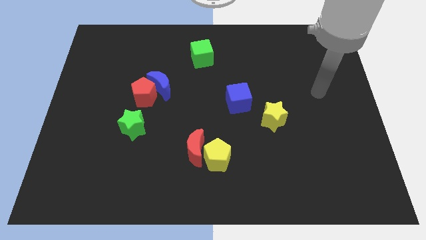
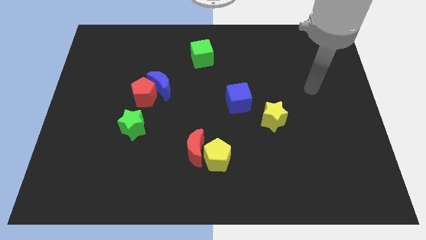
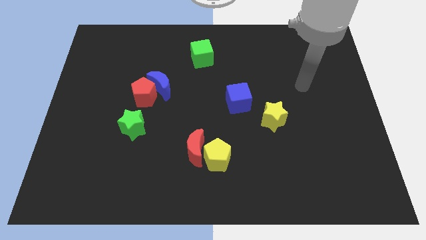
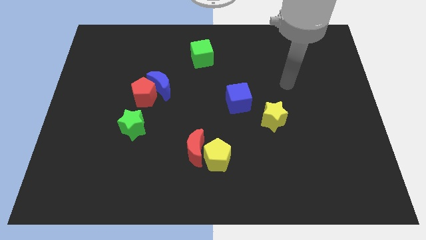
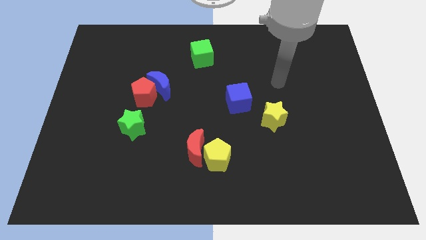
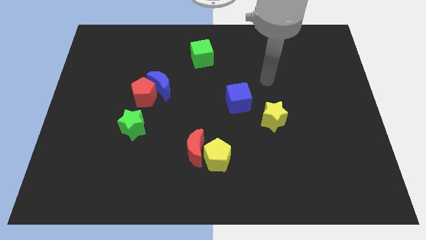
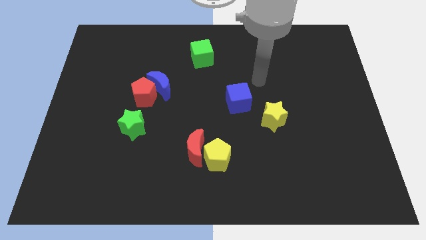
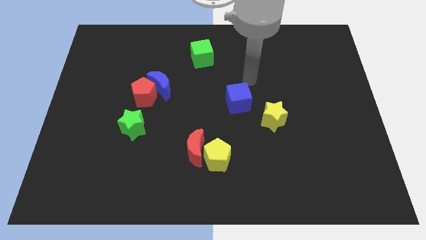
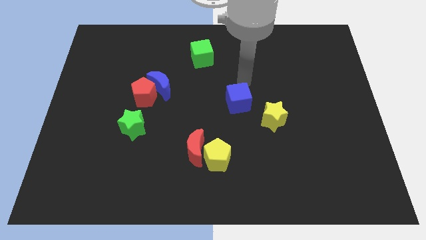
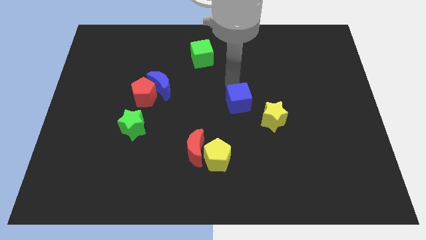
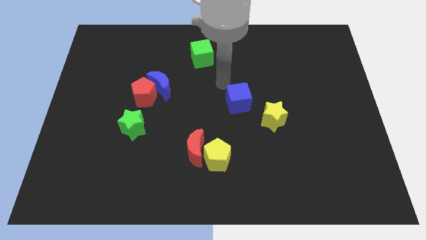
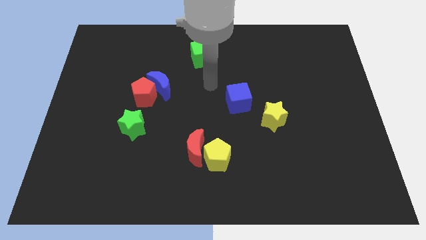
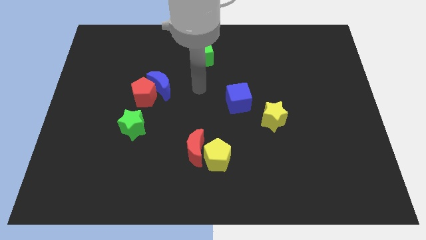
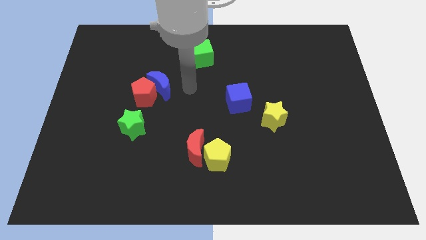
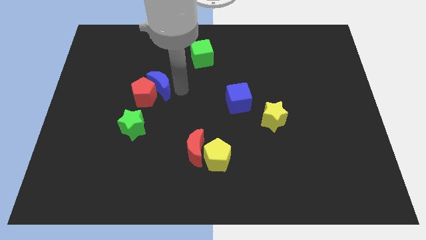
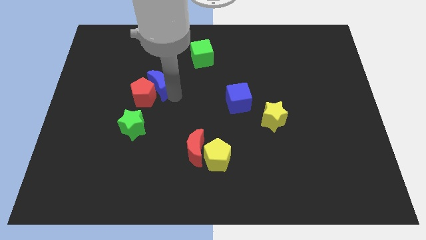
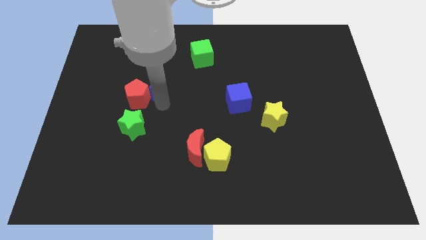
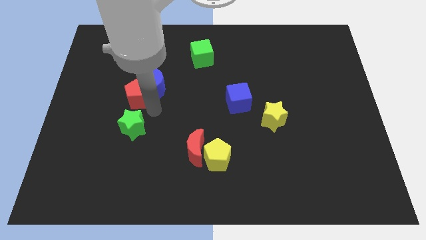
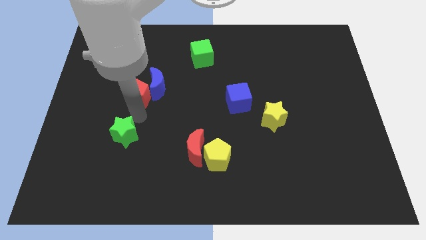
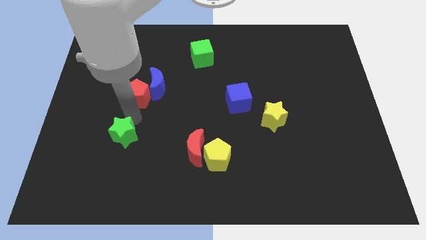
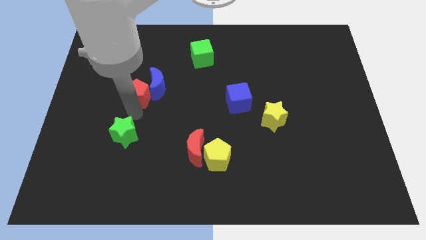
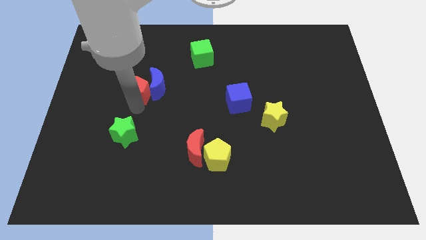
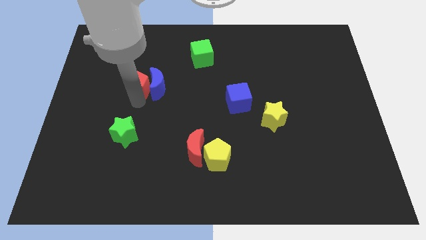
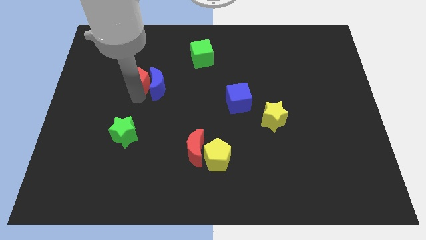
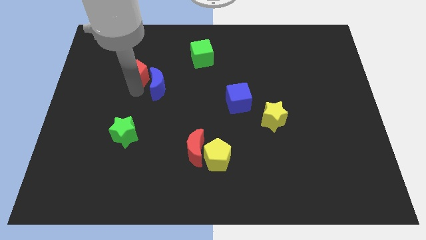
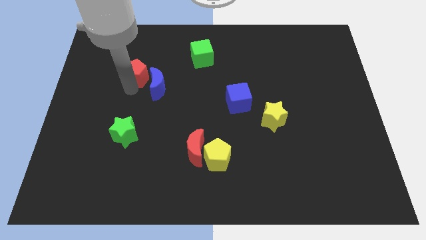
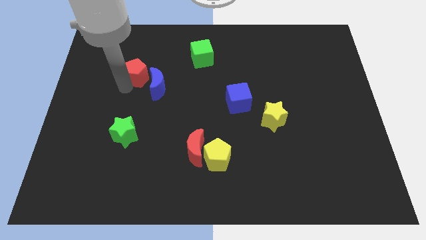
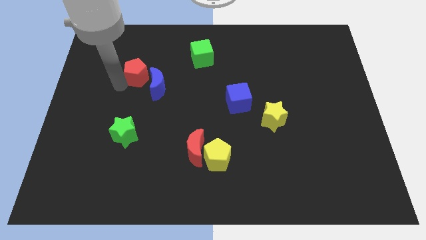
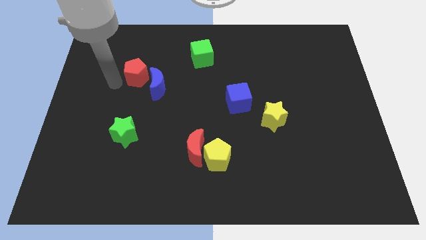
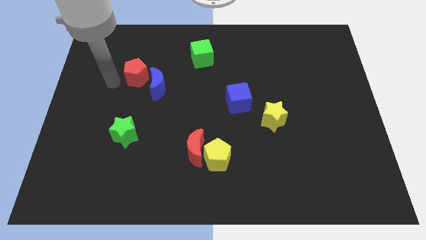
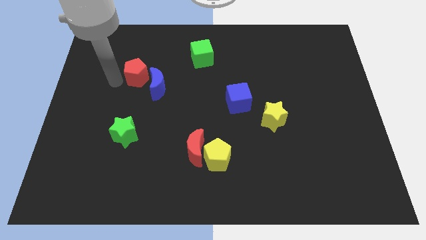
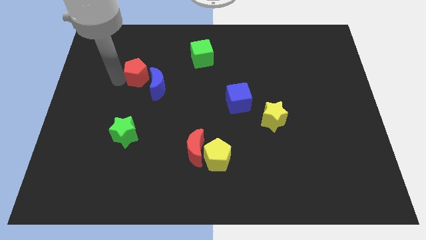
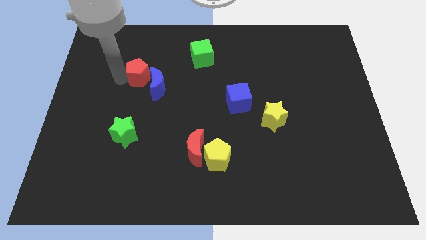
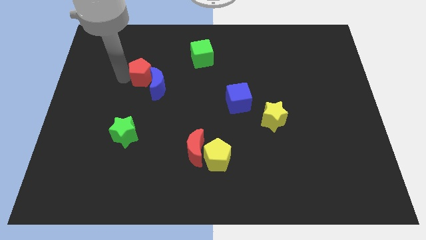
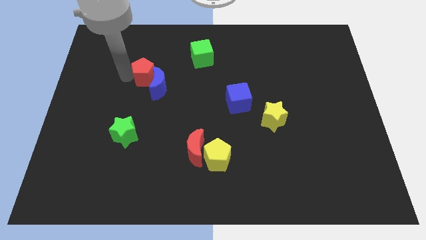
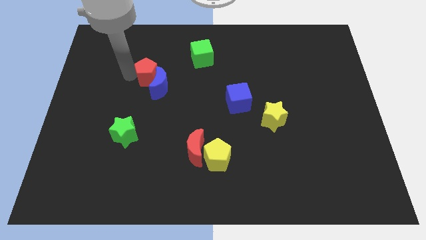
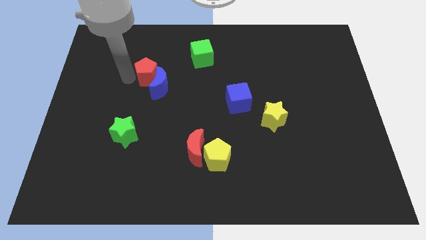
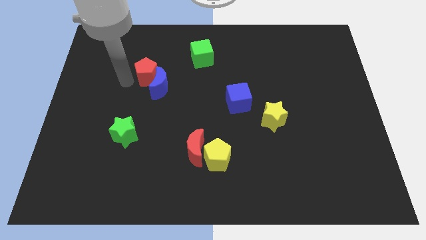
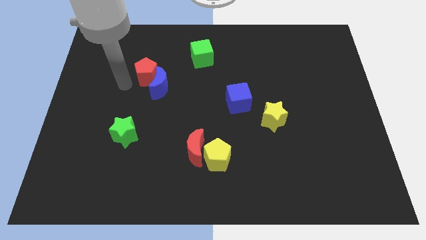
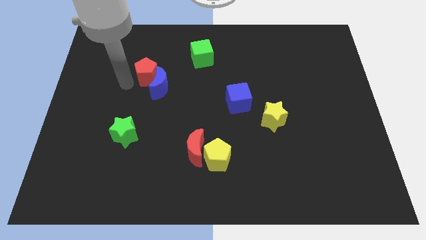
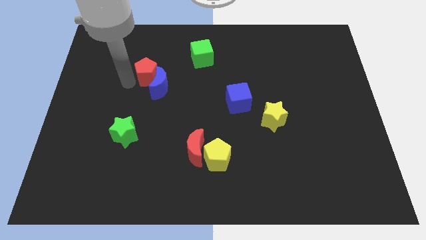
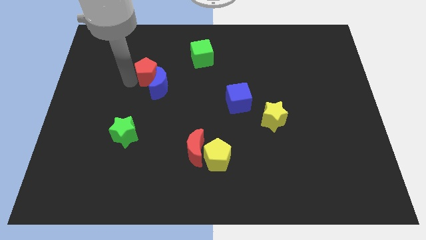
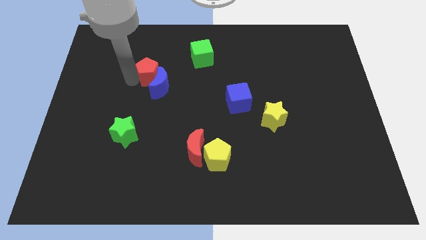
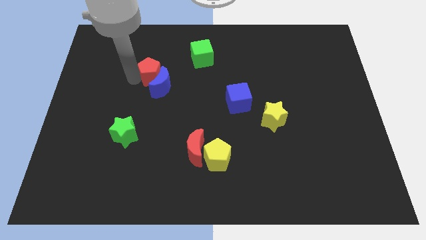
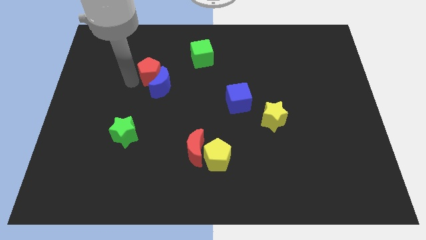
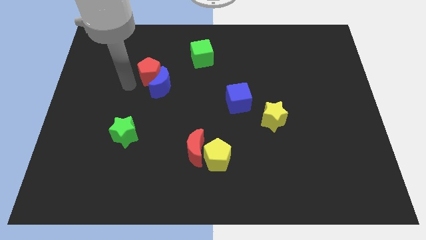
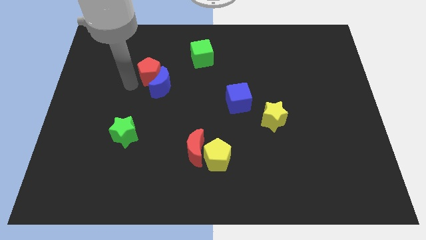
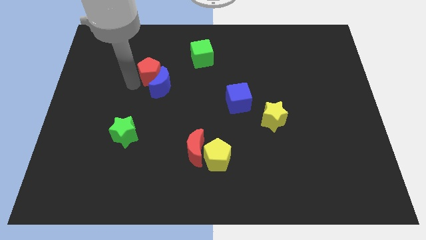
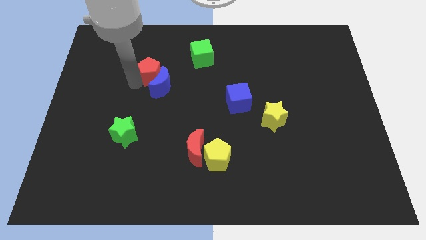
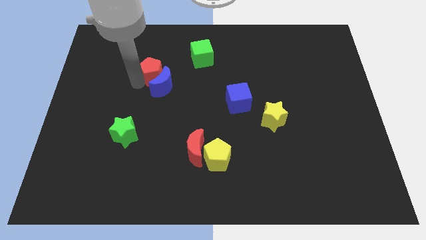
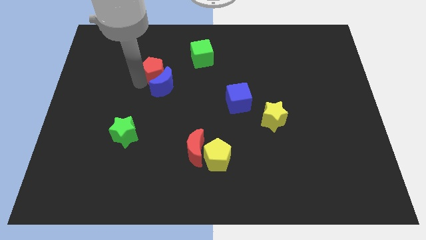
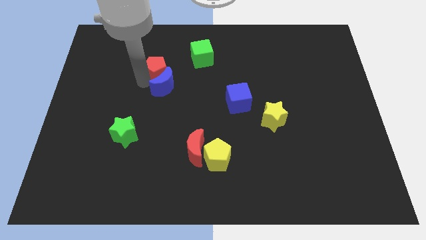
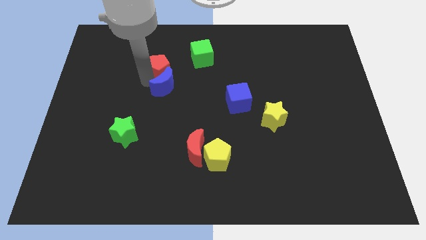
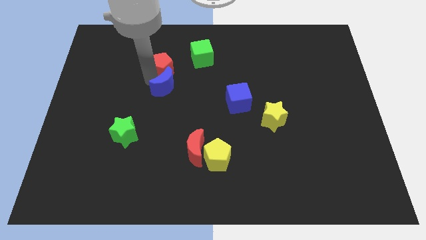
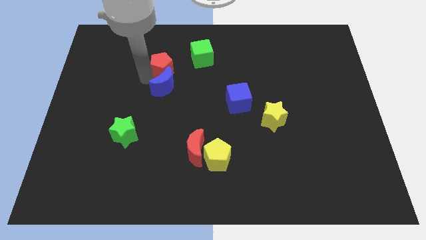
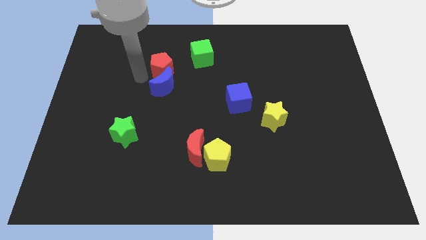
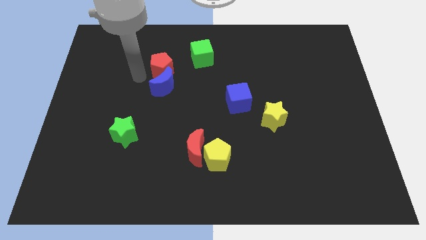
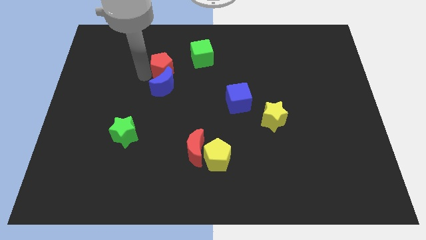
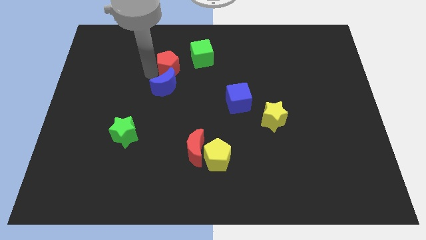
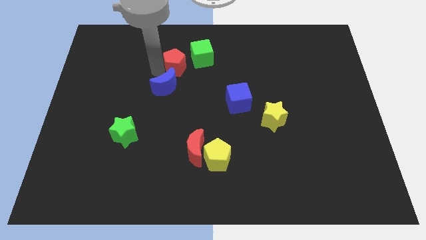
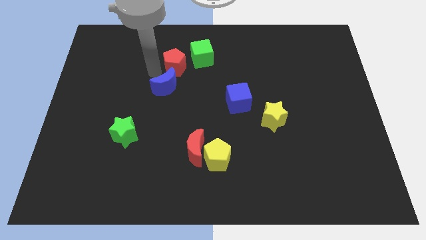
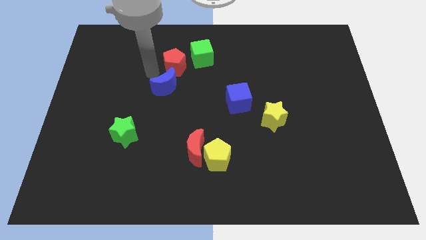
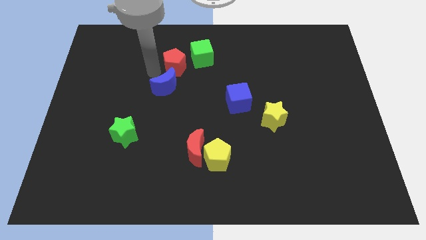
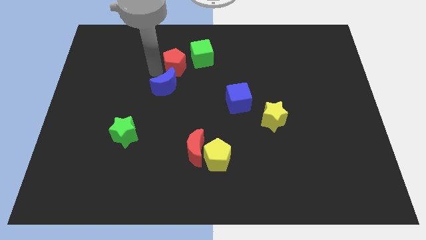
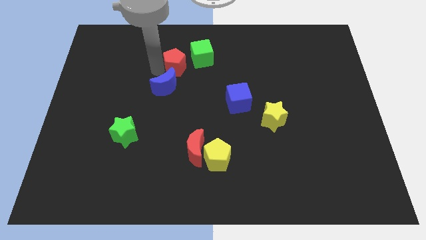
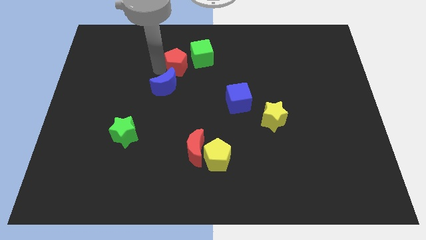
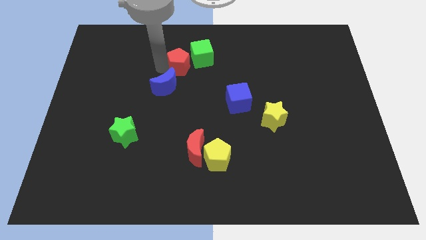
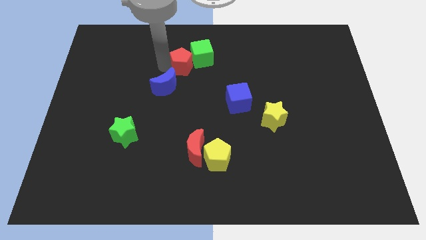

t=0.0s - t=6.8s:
put the red pentagon next to the green cube

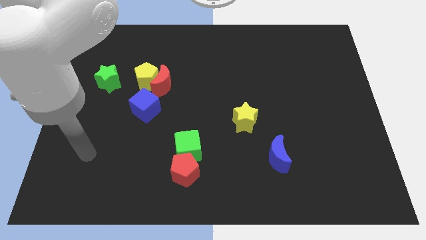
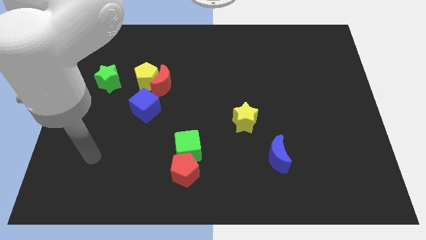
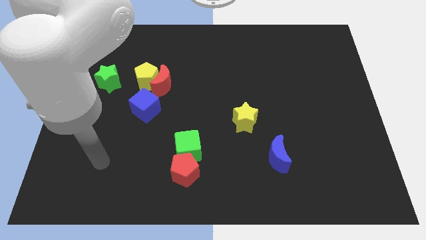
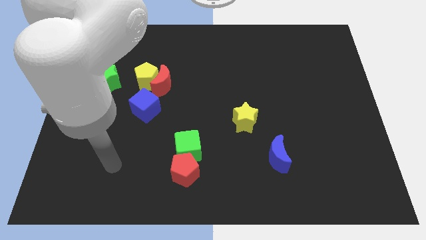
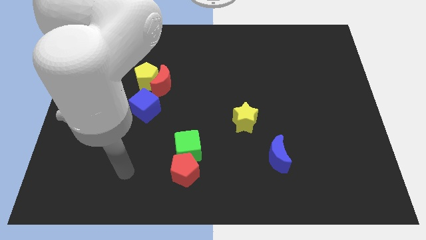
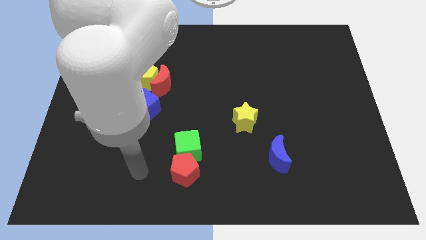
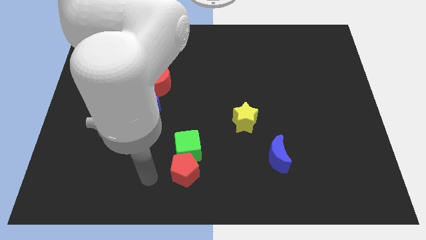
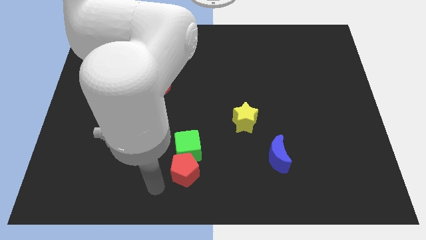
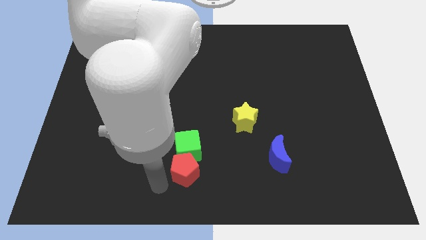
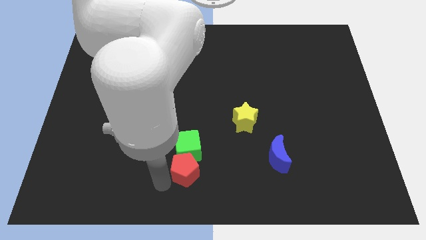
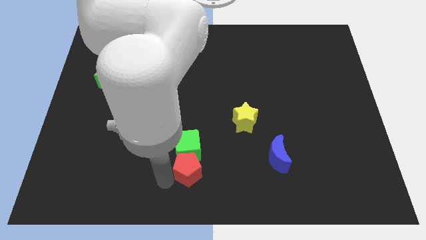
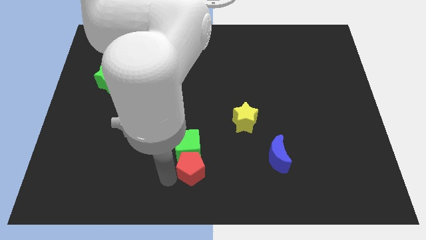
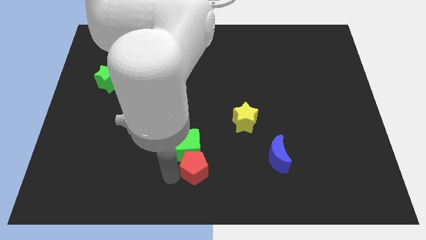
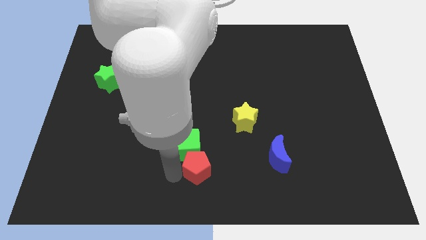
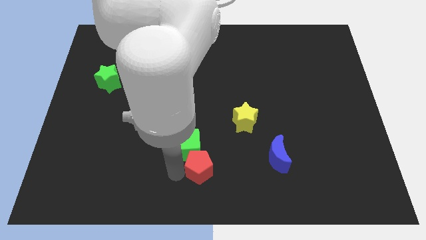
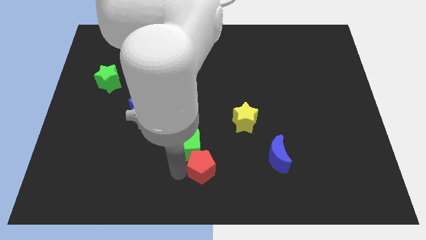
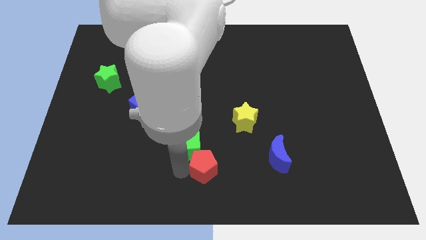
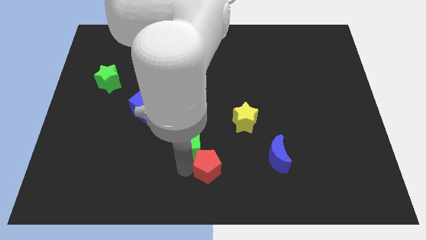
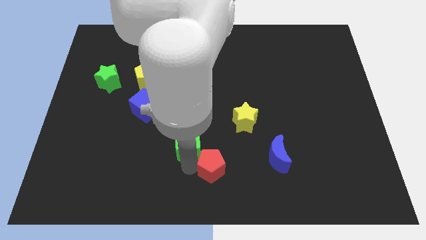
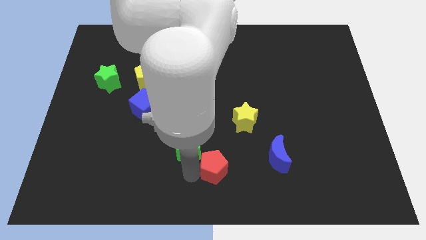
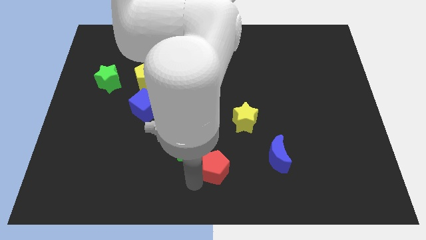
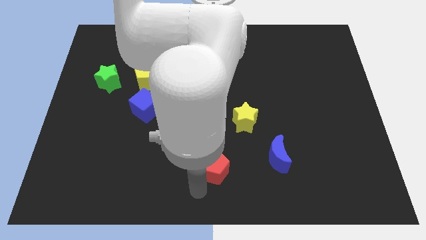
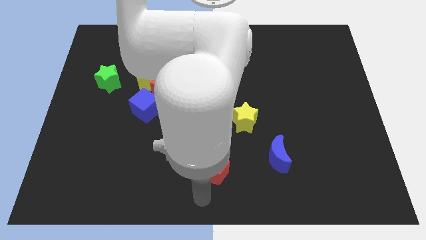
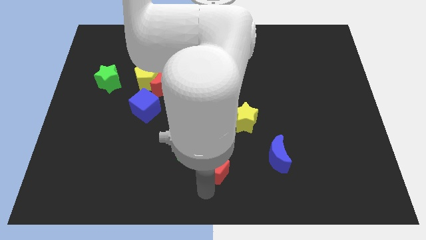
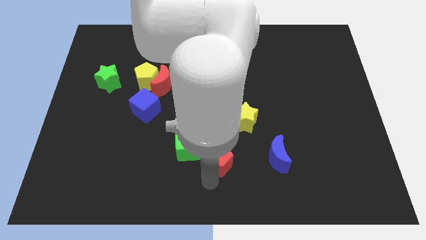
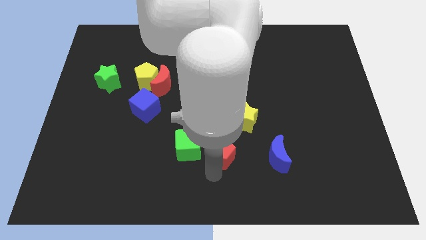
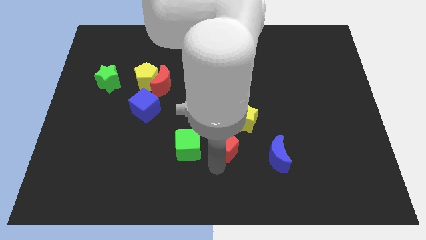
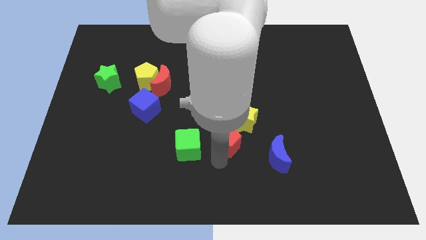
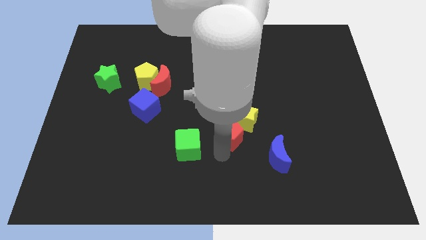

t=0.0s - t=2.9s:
put the red pentagon close to the yellow star
